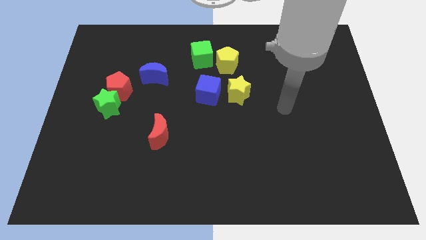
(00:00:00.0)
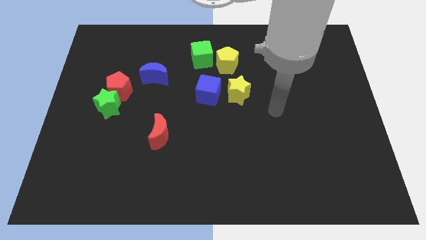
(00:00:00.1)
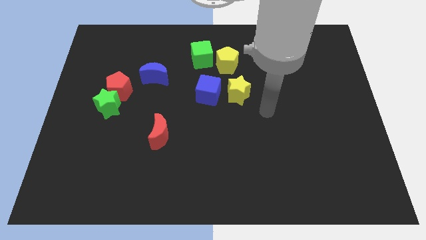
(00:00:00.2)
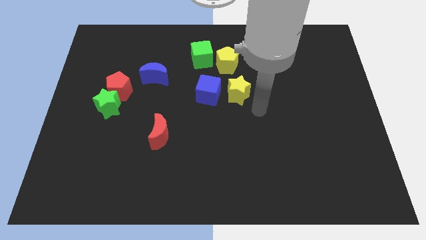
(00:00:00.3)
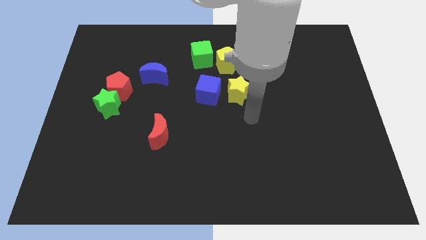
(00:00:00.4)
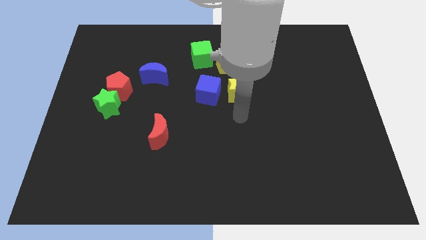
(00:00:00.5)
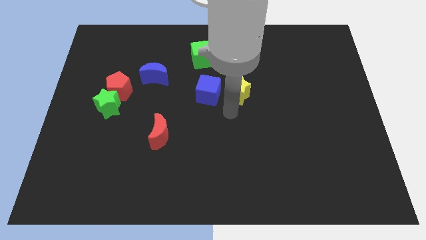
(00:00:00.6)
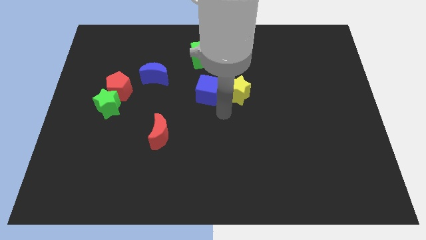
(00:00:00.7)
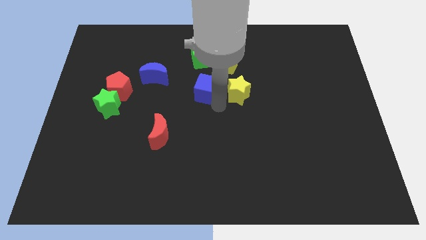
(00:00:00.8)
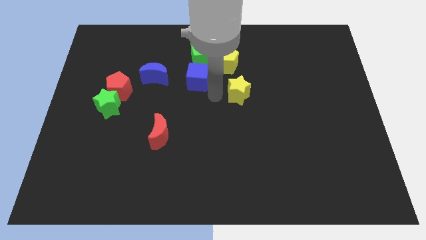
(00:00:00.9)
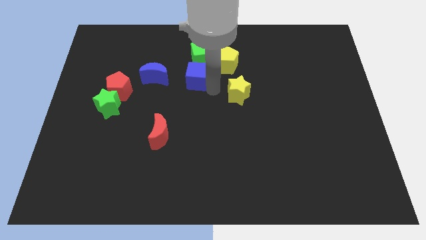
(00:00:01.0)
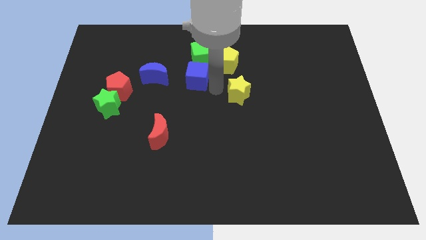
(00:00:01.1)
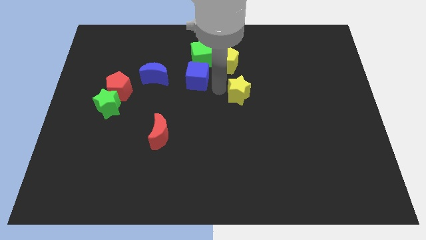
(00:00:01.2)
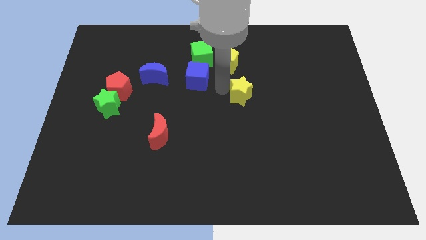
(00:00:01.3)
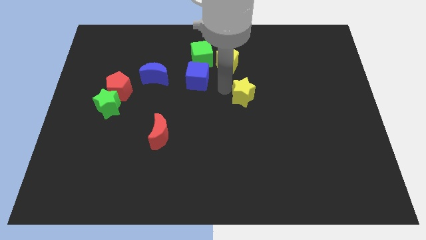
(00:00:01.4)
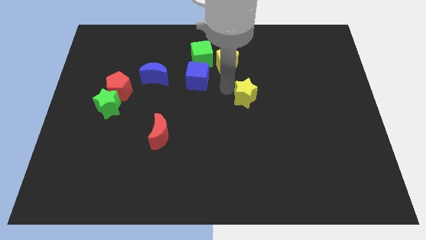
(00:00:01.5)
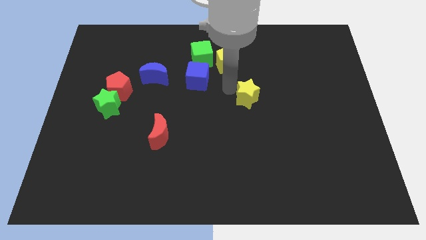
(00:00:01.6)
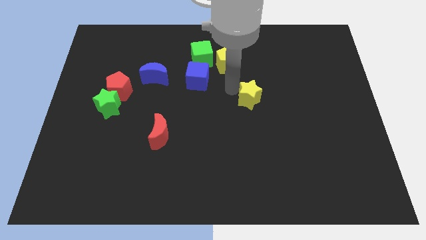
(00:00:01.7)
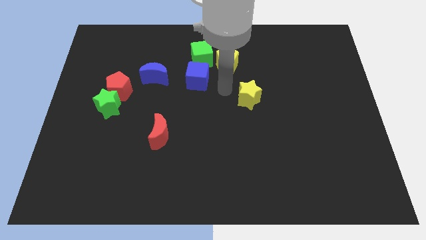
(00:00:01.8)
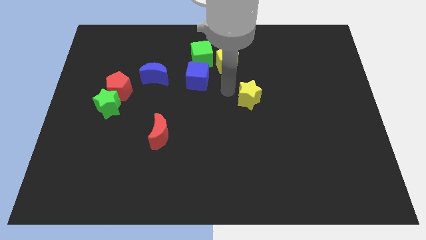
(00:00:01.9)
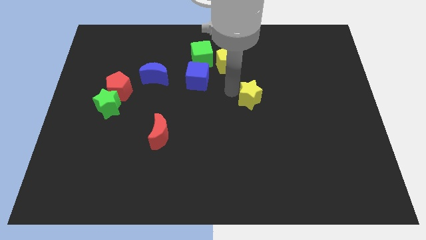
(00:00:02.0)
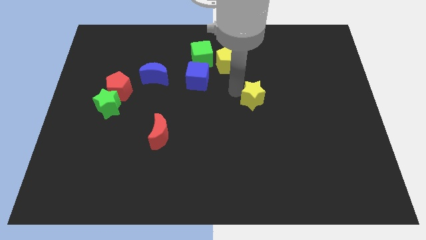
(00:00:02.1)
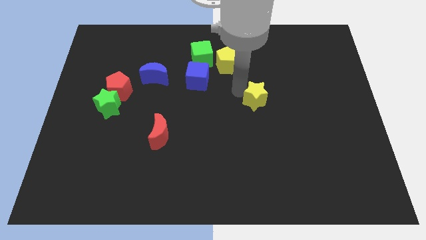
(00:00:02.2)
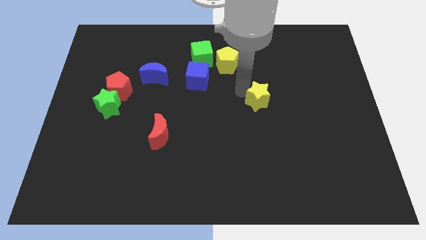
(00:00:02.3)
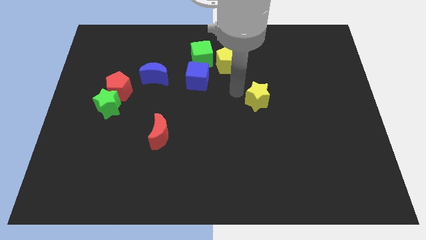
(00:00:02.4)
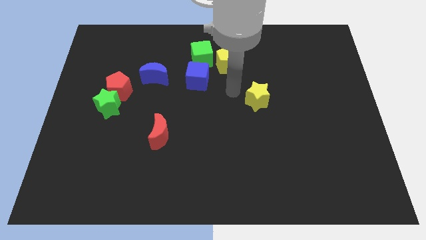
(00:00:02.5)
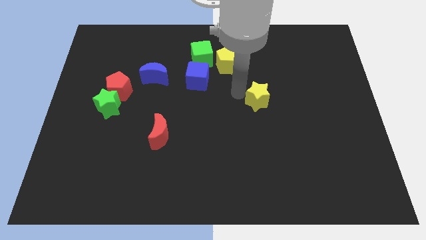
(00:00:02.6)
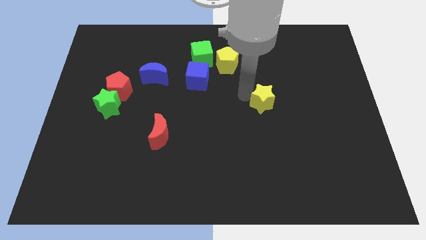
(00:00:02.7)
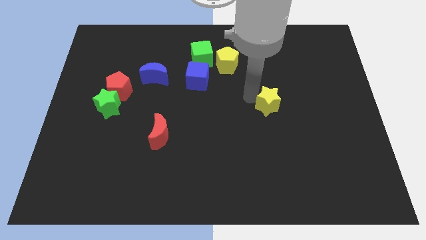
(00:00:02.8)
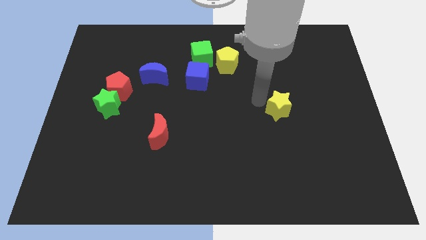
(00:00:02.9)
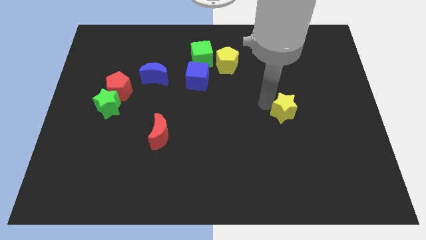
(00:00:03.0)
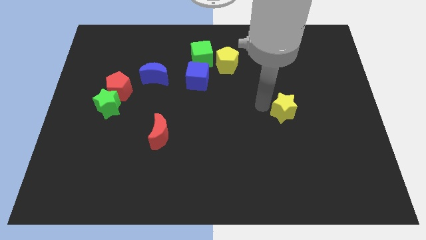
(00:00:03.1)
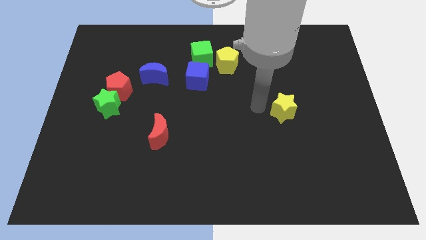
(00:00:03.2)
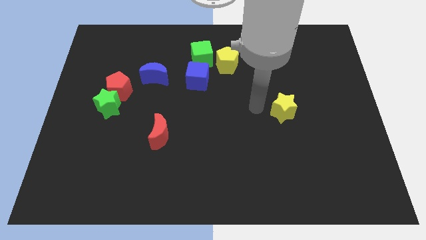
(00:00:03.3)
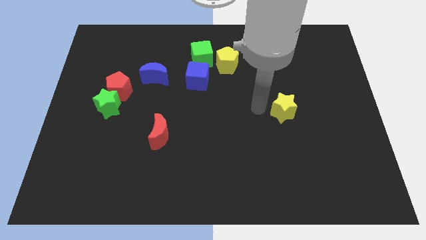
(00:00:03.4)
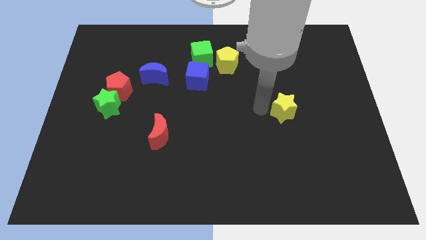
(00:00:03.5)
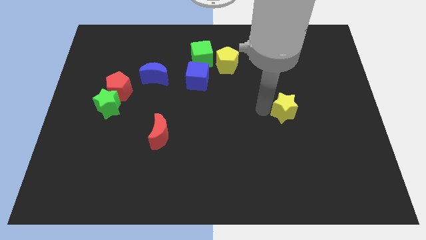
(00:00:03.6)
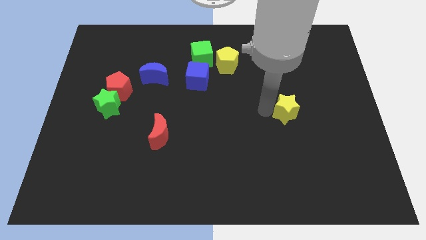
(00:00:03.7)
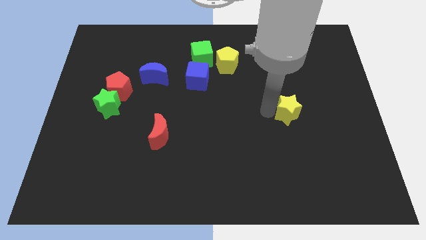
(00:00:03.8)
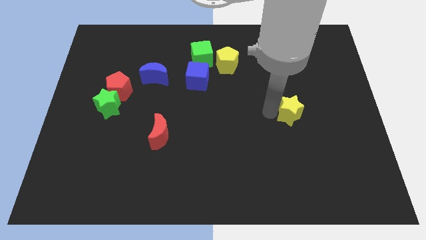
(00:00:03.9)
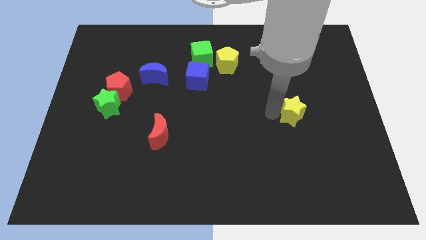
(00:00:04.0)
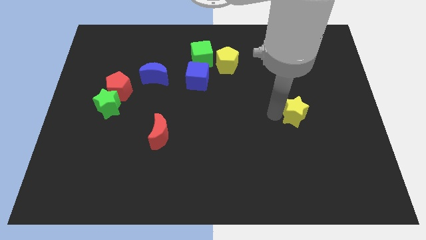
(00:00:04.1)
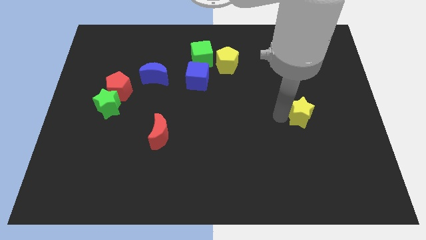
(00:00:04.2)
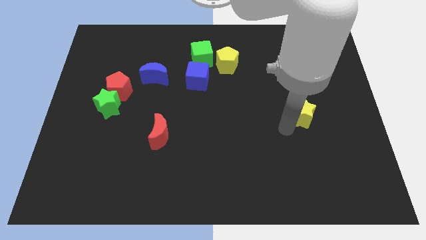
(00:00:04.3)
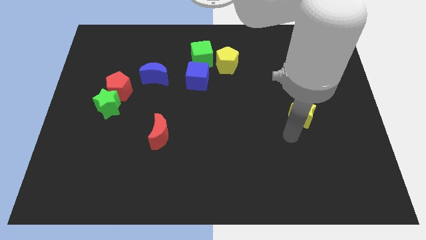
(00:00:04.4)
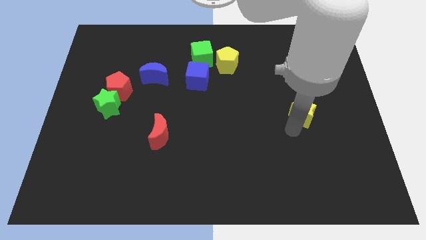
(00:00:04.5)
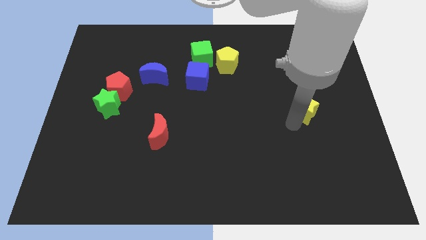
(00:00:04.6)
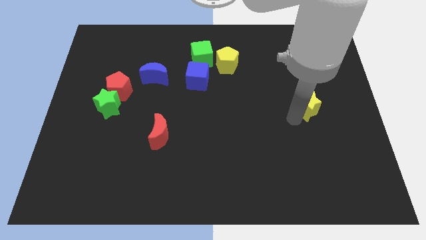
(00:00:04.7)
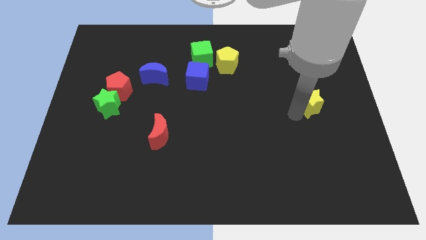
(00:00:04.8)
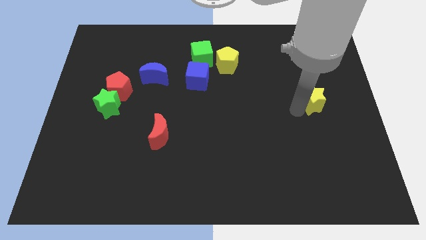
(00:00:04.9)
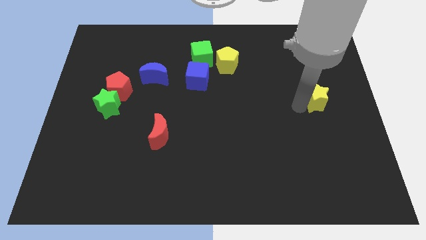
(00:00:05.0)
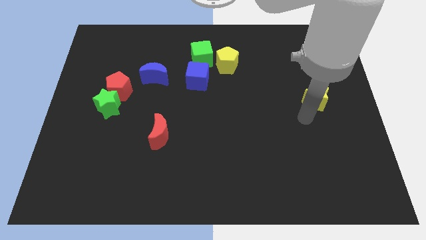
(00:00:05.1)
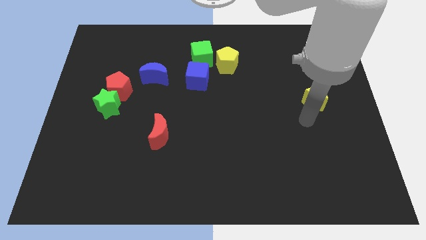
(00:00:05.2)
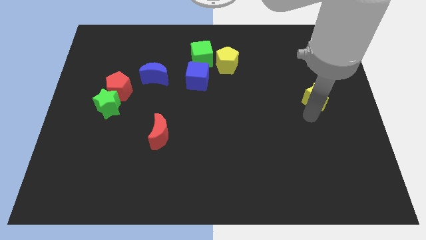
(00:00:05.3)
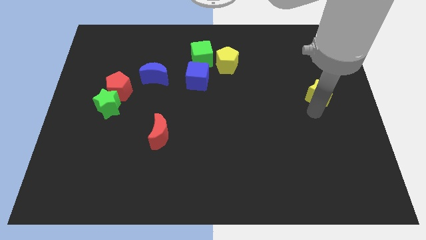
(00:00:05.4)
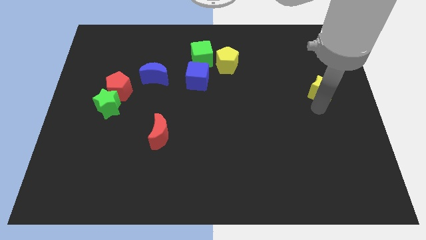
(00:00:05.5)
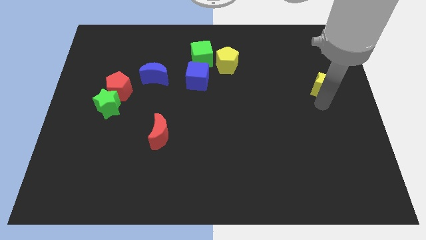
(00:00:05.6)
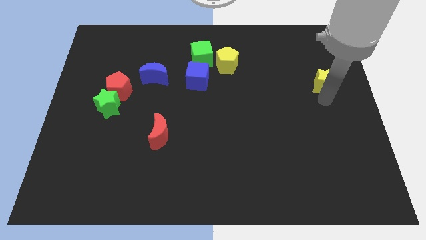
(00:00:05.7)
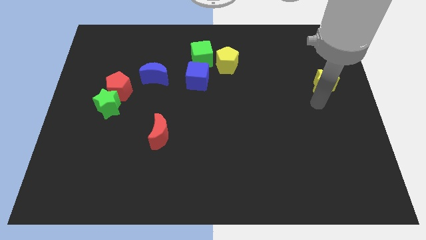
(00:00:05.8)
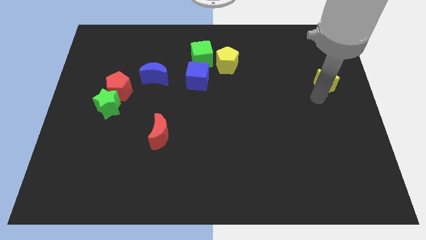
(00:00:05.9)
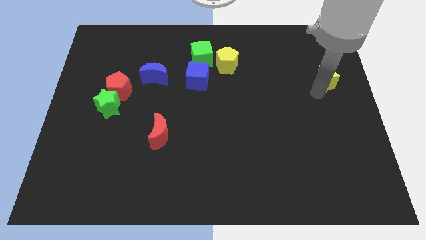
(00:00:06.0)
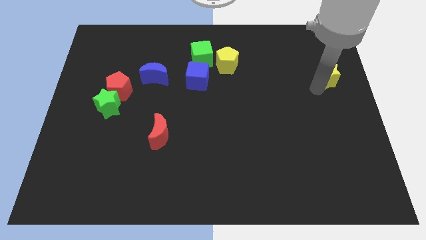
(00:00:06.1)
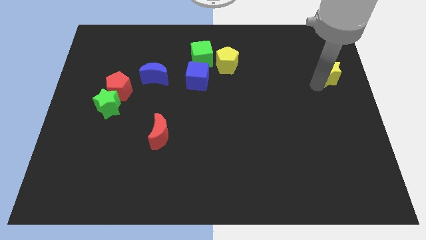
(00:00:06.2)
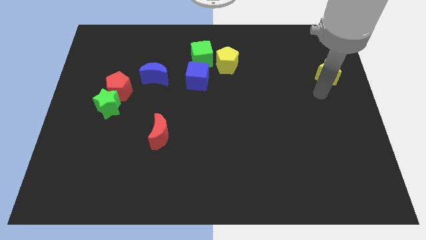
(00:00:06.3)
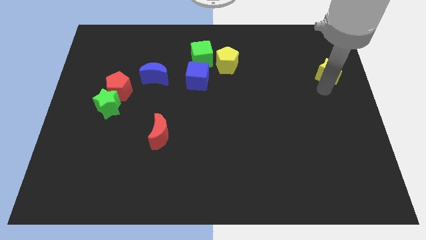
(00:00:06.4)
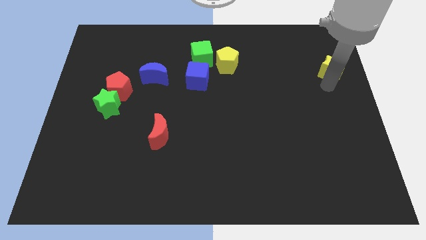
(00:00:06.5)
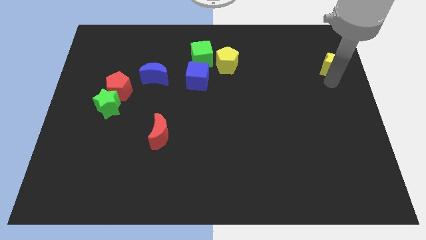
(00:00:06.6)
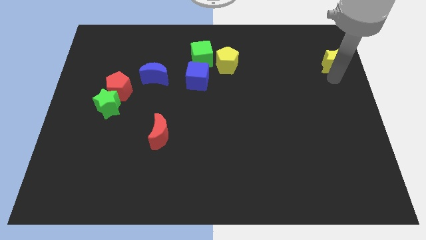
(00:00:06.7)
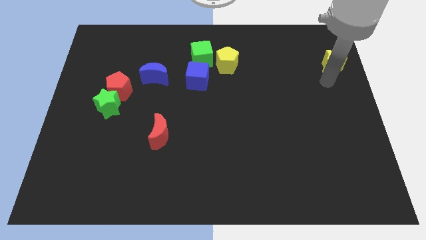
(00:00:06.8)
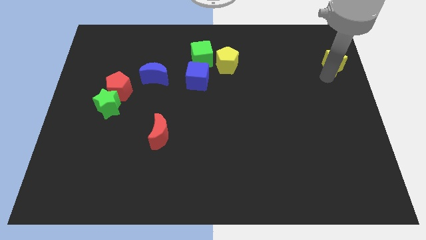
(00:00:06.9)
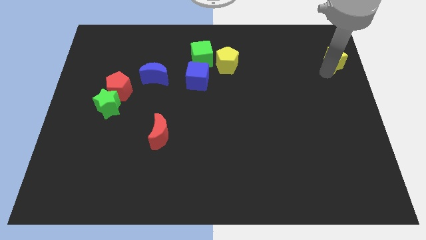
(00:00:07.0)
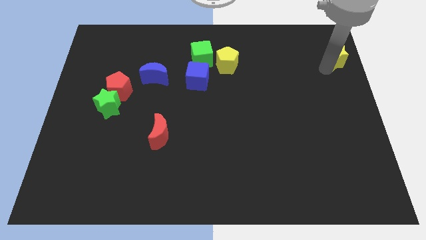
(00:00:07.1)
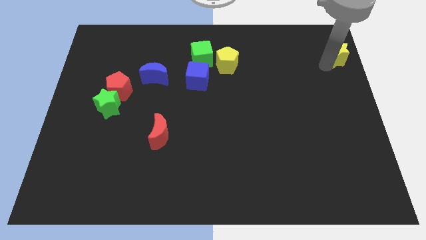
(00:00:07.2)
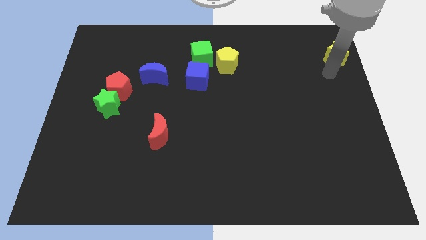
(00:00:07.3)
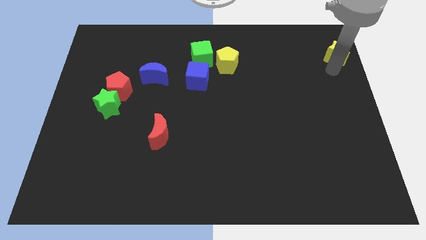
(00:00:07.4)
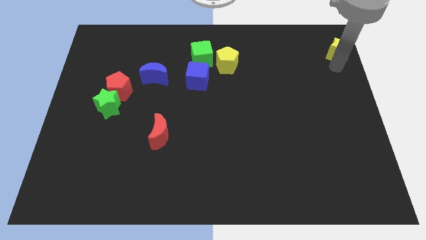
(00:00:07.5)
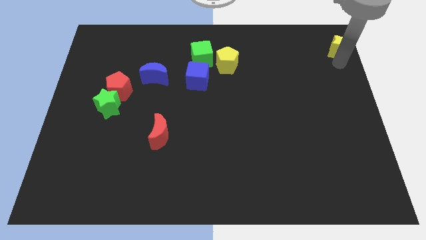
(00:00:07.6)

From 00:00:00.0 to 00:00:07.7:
move the yellow star to the top right of the board

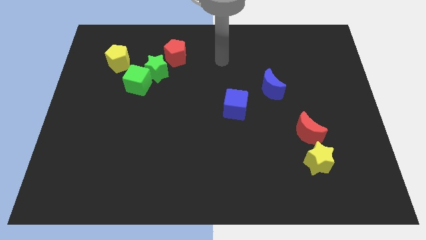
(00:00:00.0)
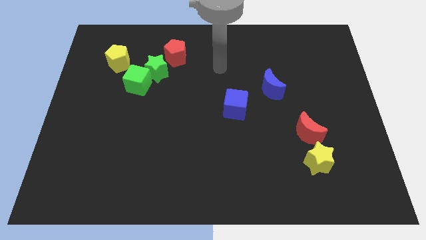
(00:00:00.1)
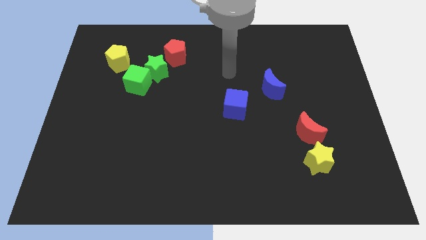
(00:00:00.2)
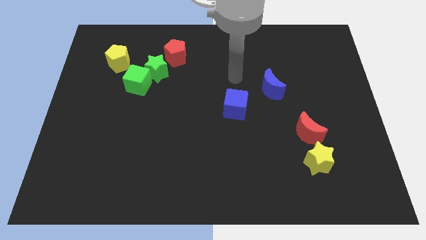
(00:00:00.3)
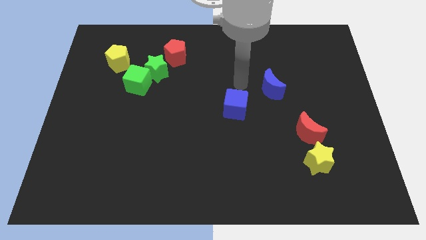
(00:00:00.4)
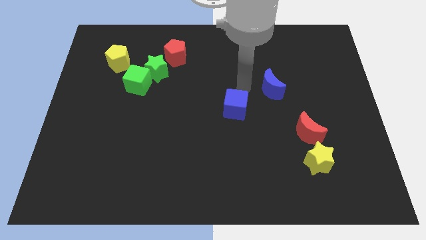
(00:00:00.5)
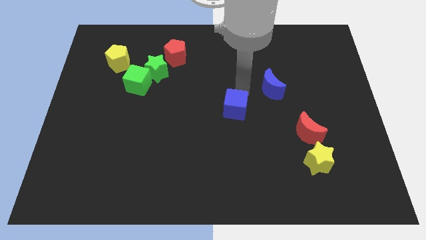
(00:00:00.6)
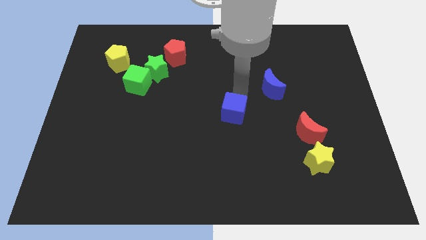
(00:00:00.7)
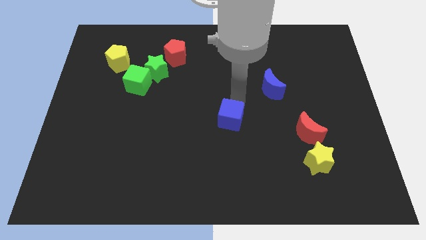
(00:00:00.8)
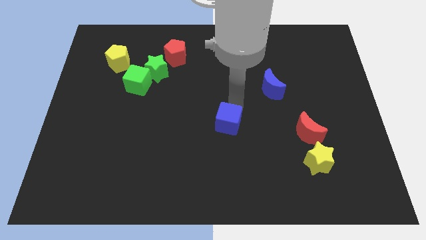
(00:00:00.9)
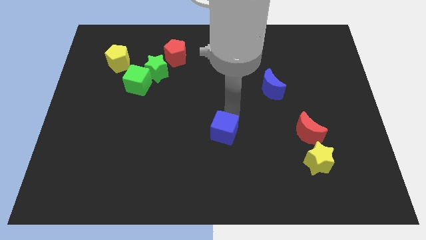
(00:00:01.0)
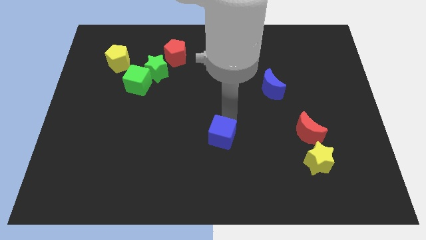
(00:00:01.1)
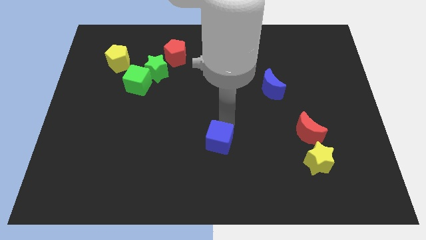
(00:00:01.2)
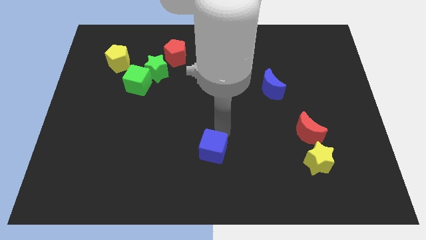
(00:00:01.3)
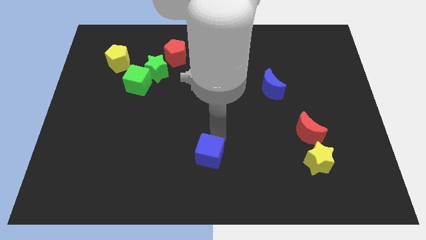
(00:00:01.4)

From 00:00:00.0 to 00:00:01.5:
move the blue cube to the bottom side
